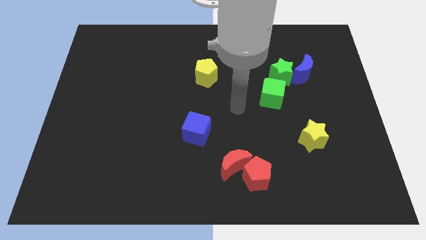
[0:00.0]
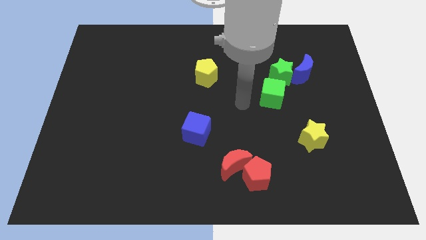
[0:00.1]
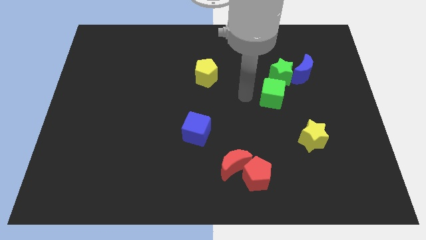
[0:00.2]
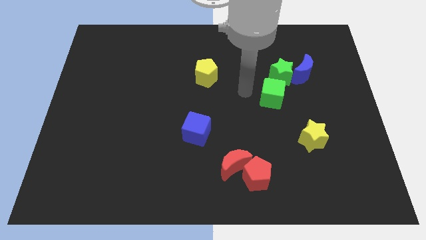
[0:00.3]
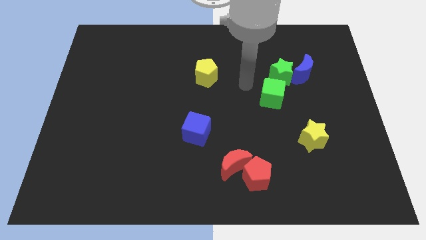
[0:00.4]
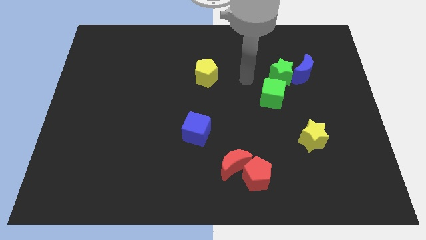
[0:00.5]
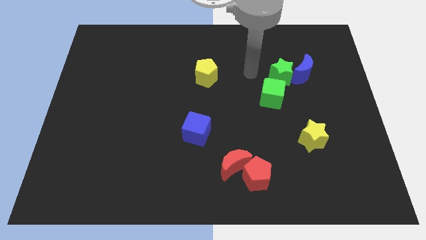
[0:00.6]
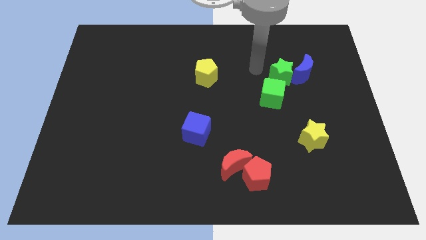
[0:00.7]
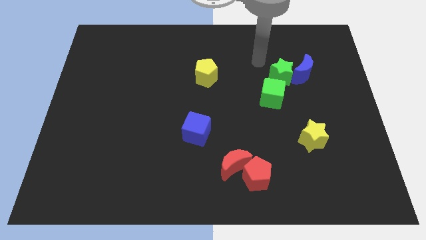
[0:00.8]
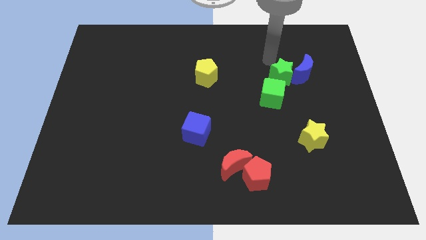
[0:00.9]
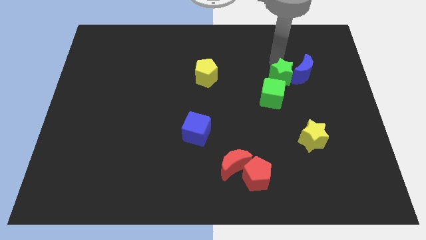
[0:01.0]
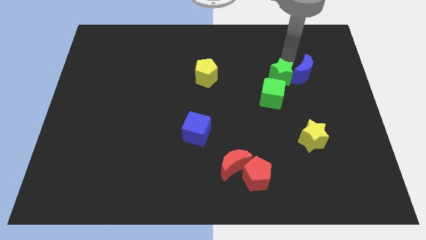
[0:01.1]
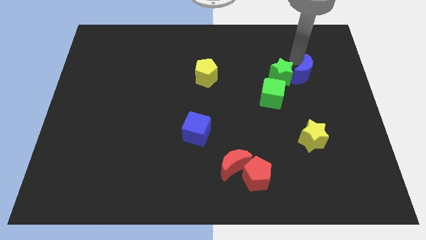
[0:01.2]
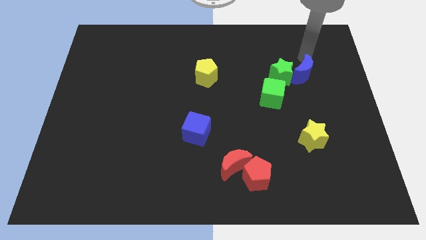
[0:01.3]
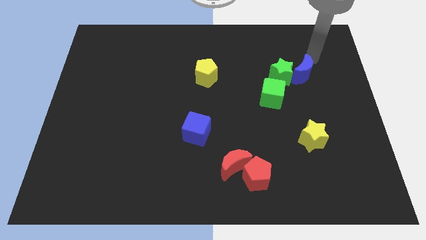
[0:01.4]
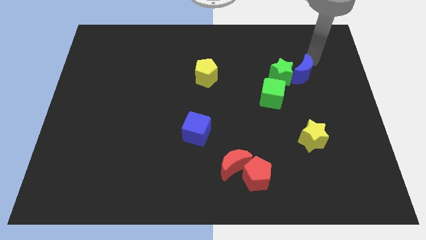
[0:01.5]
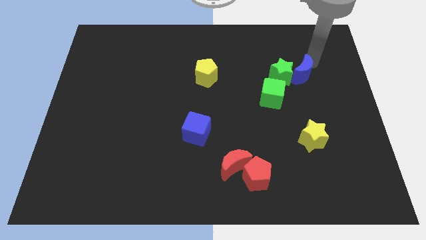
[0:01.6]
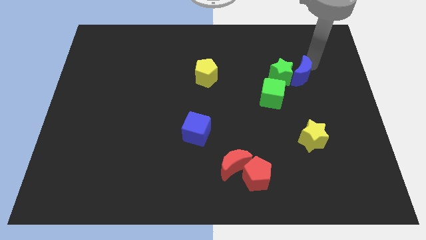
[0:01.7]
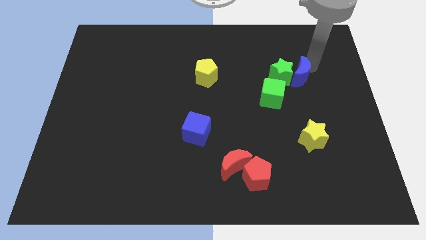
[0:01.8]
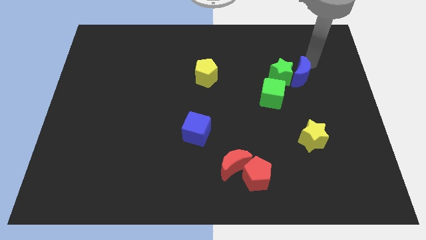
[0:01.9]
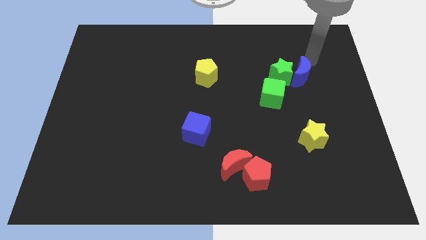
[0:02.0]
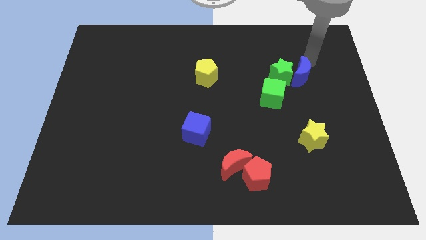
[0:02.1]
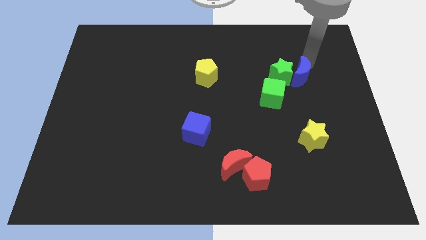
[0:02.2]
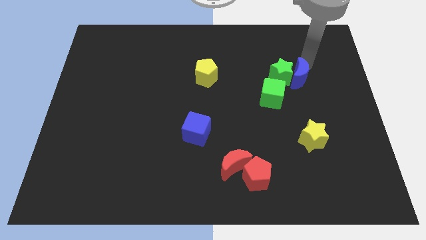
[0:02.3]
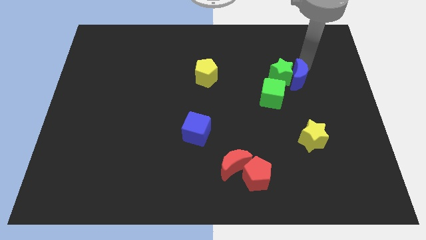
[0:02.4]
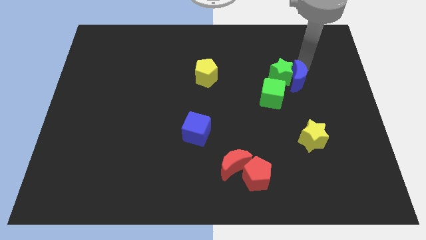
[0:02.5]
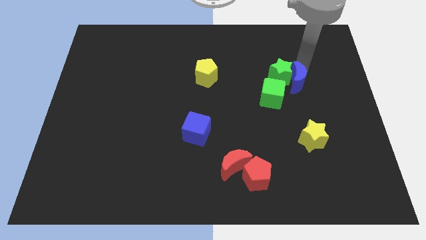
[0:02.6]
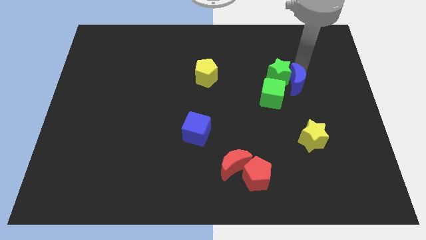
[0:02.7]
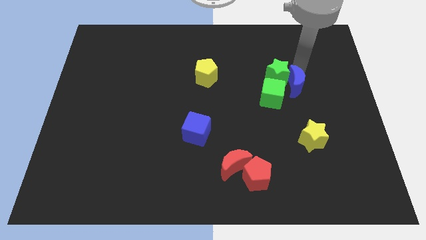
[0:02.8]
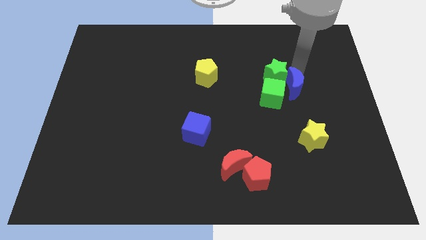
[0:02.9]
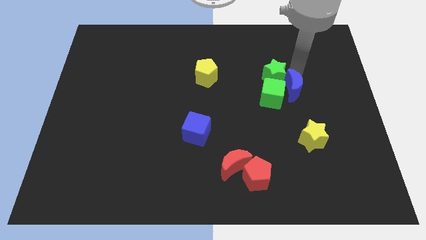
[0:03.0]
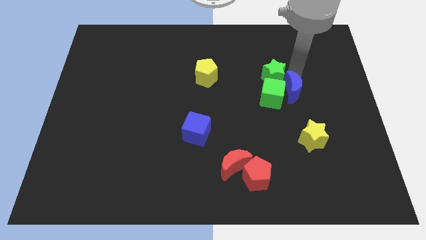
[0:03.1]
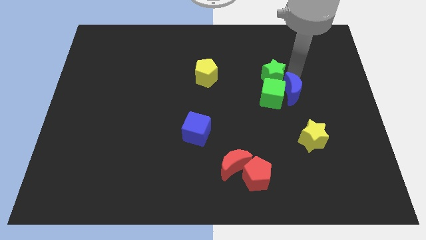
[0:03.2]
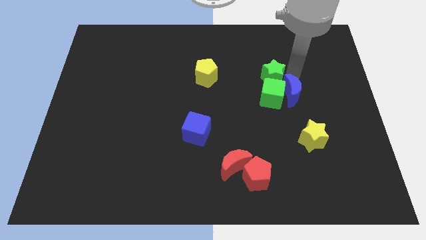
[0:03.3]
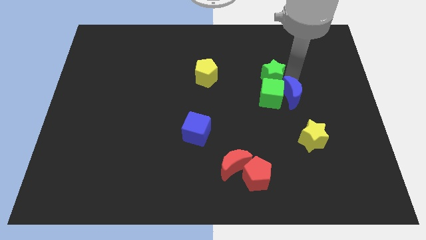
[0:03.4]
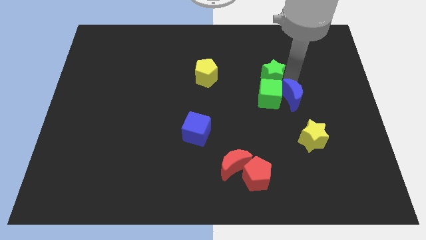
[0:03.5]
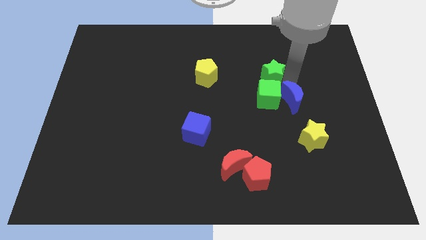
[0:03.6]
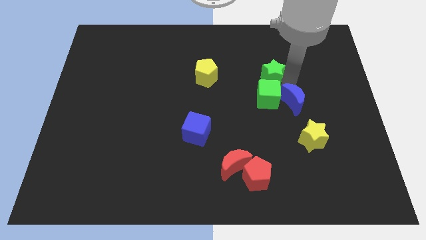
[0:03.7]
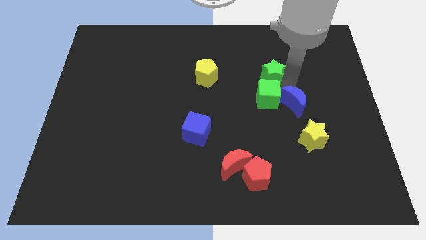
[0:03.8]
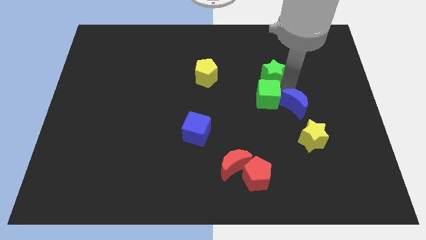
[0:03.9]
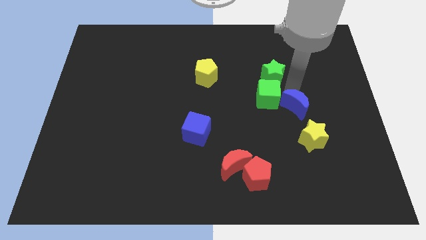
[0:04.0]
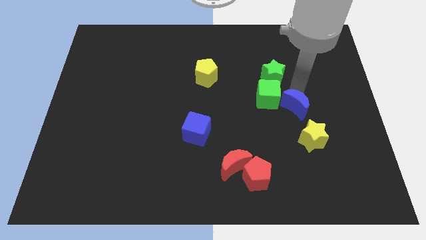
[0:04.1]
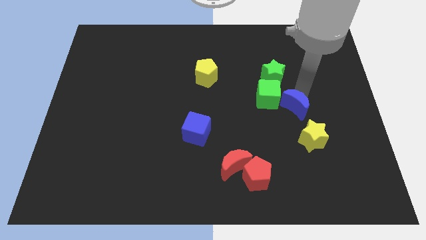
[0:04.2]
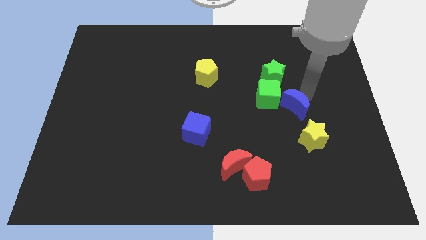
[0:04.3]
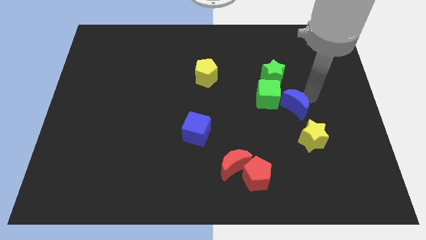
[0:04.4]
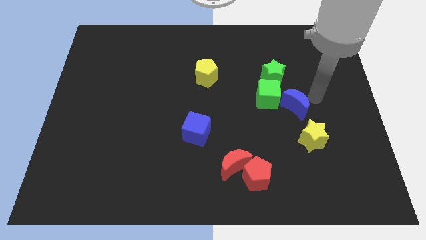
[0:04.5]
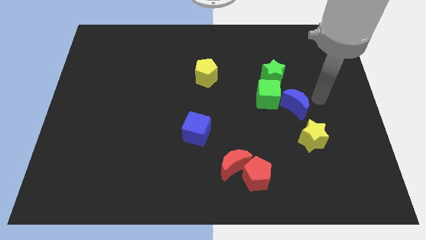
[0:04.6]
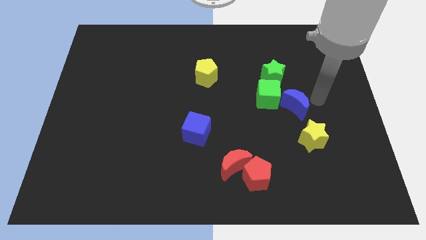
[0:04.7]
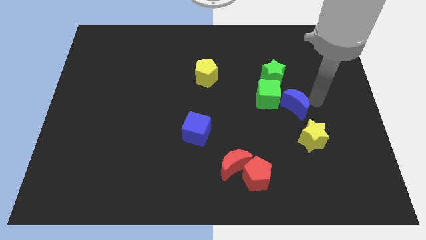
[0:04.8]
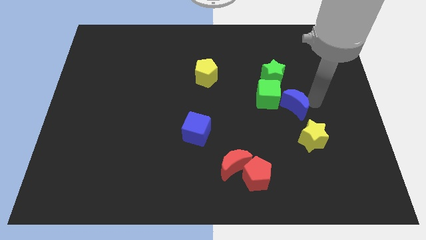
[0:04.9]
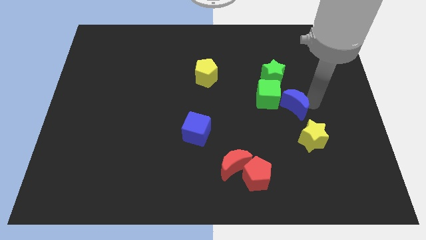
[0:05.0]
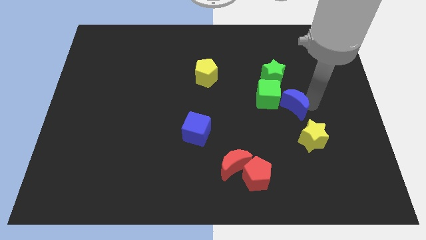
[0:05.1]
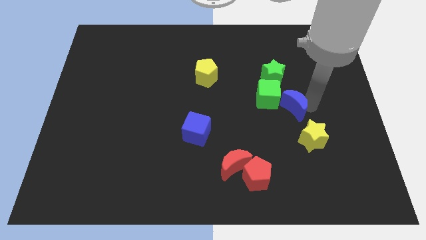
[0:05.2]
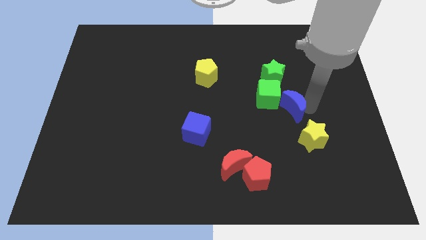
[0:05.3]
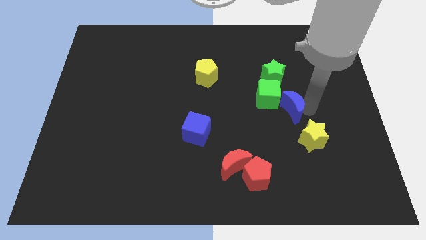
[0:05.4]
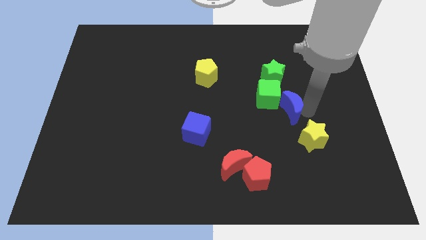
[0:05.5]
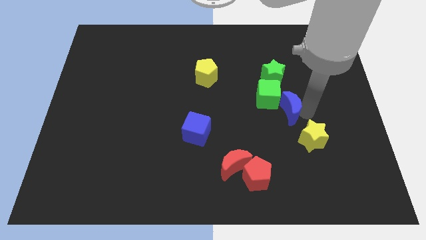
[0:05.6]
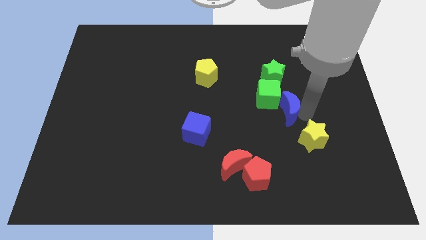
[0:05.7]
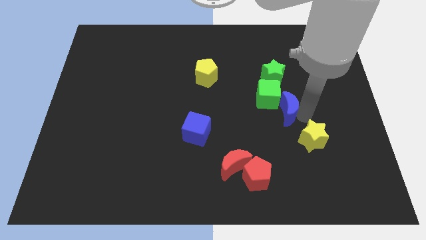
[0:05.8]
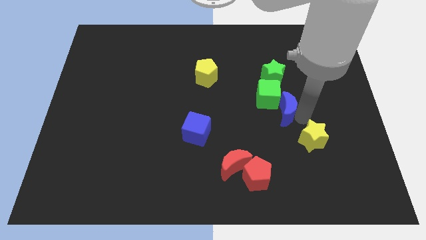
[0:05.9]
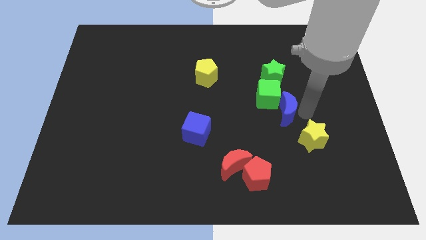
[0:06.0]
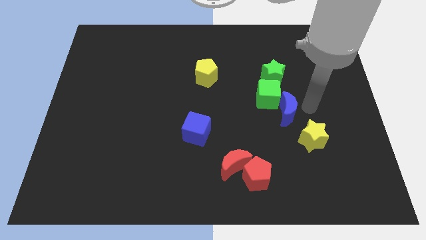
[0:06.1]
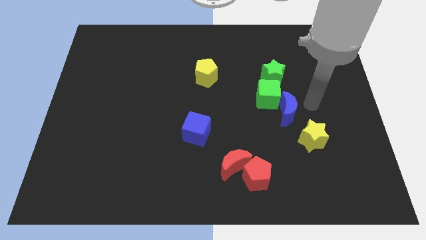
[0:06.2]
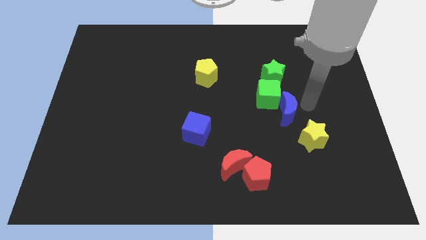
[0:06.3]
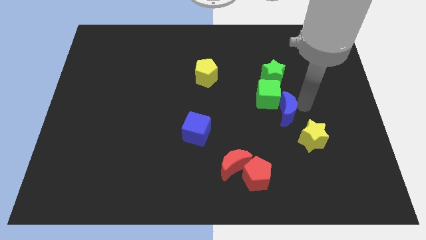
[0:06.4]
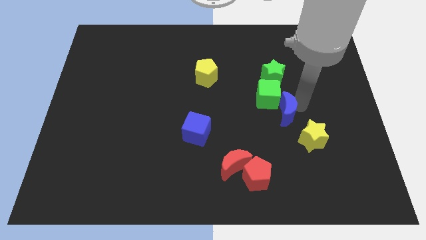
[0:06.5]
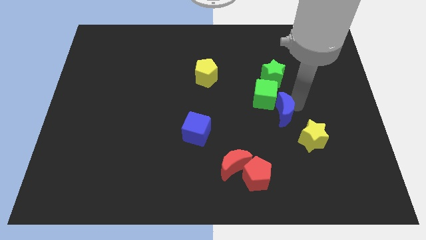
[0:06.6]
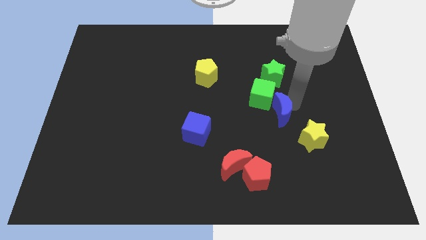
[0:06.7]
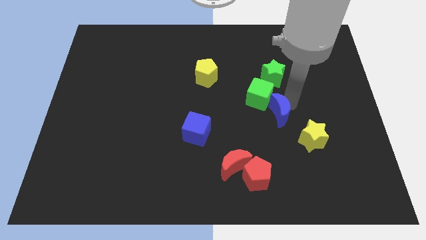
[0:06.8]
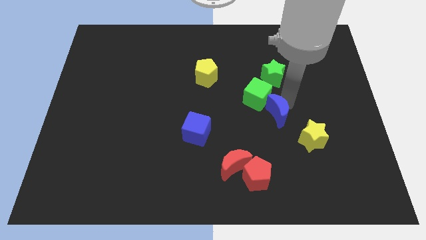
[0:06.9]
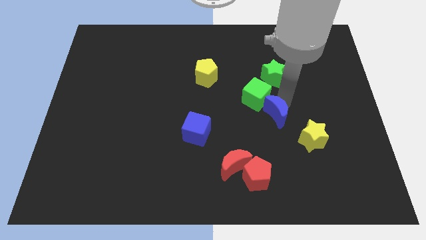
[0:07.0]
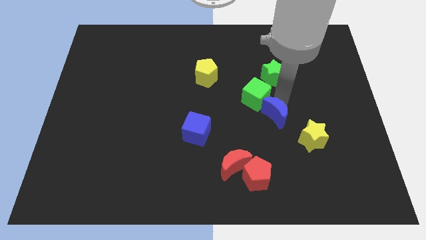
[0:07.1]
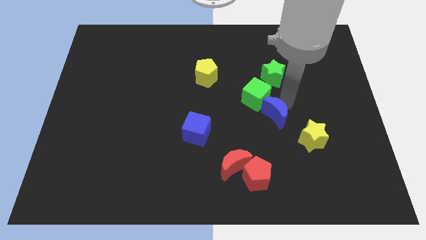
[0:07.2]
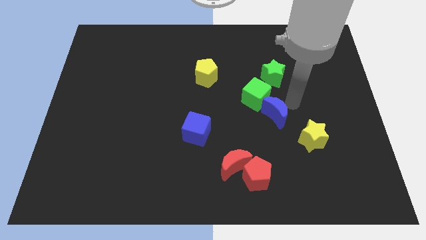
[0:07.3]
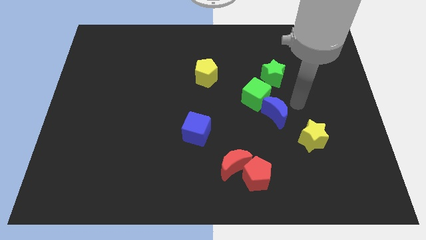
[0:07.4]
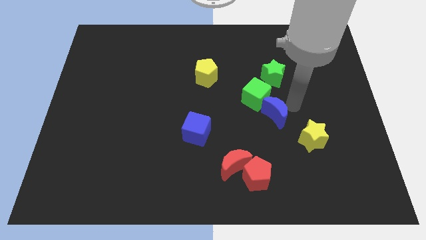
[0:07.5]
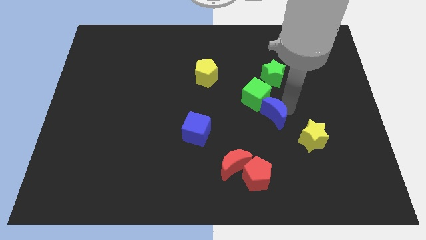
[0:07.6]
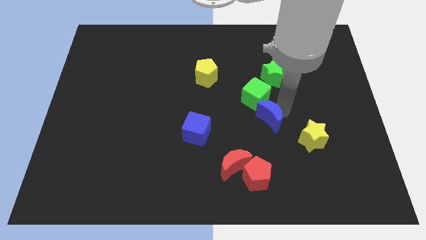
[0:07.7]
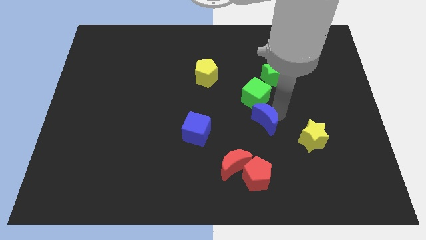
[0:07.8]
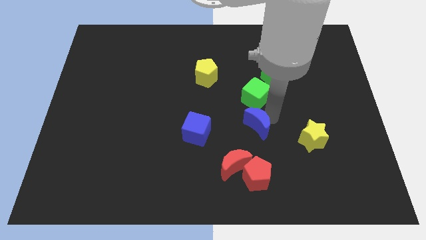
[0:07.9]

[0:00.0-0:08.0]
push the blue moon downwards and to the left

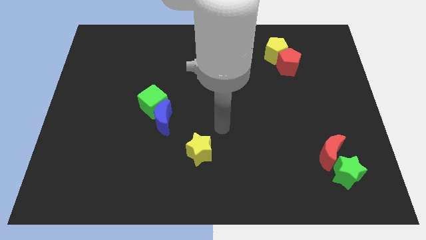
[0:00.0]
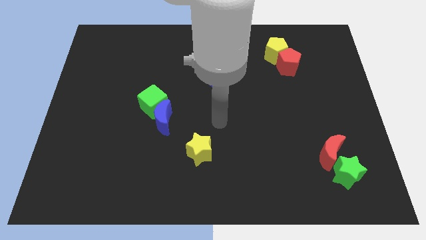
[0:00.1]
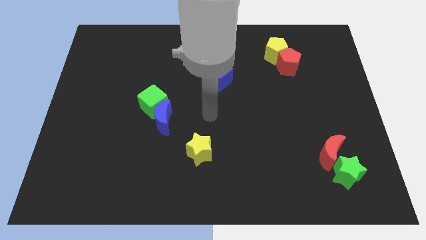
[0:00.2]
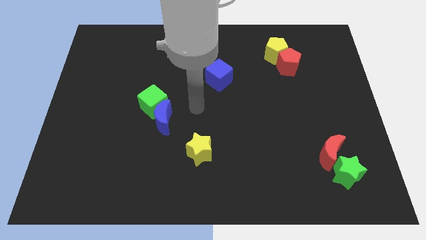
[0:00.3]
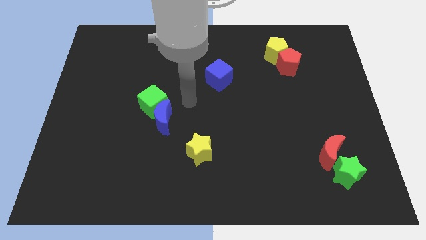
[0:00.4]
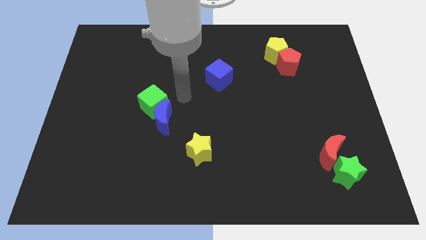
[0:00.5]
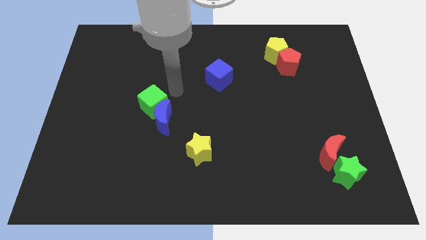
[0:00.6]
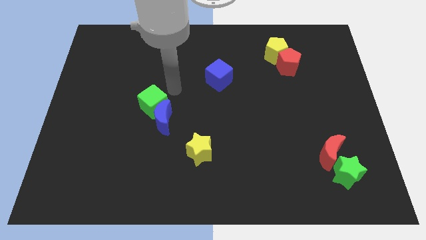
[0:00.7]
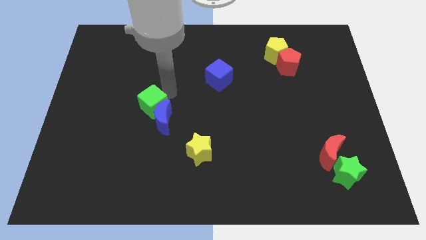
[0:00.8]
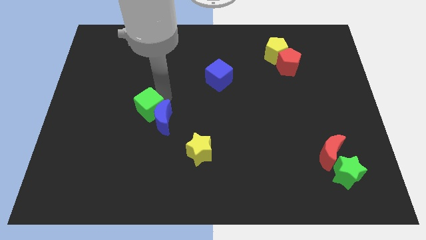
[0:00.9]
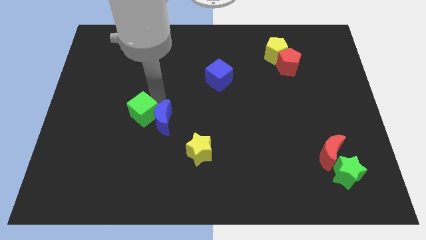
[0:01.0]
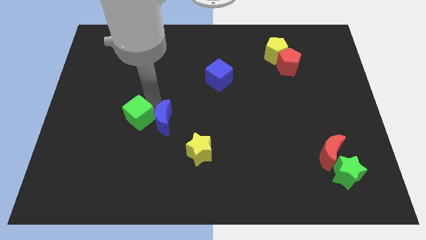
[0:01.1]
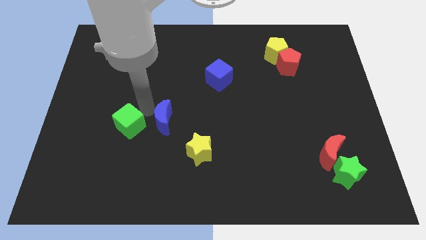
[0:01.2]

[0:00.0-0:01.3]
slightly slide the green cube downwards and then to the left
